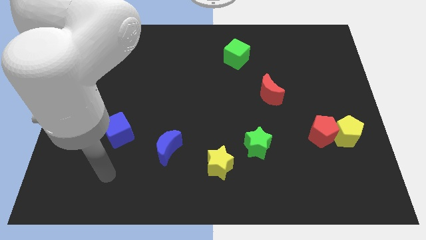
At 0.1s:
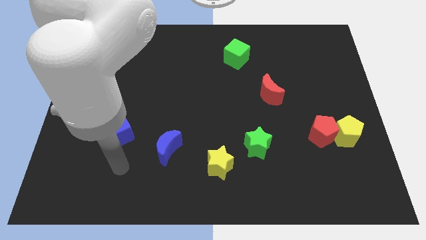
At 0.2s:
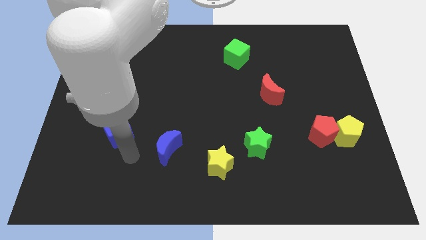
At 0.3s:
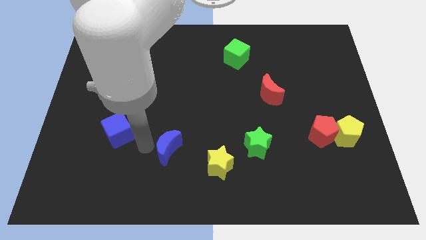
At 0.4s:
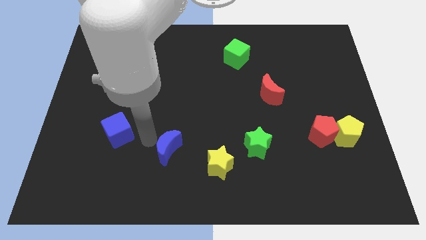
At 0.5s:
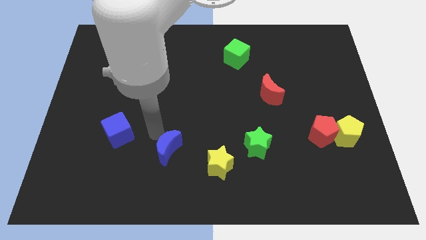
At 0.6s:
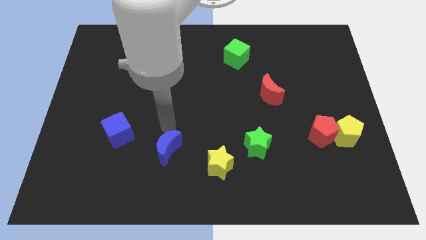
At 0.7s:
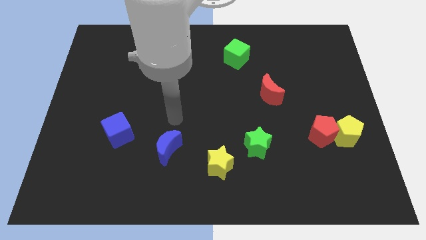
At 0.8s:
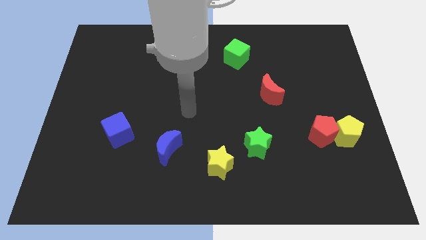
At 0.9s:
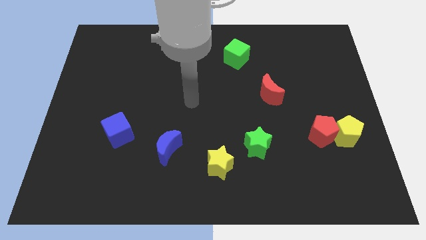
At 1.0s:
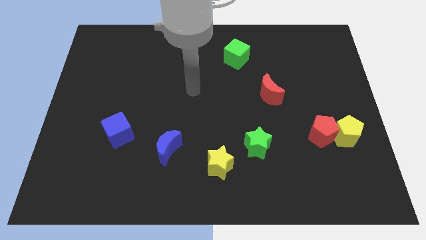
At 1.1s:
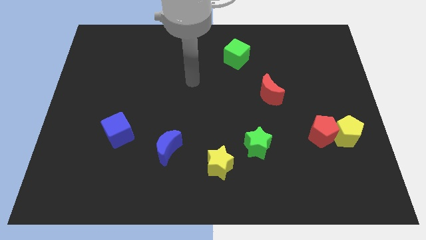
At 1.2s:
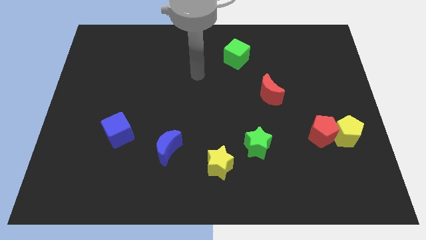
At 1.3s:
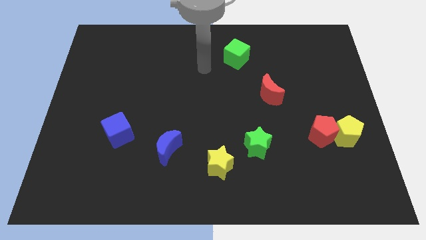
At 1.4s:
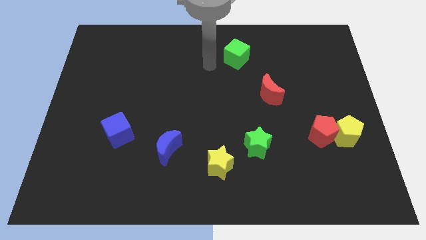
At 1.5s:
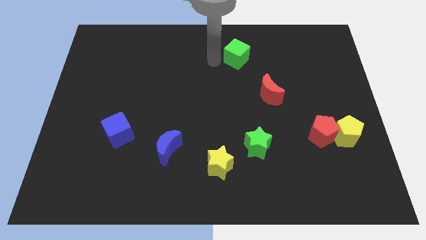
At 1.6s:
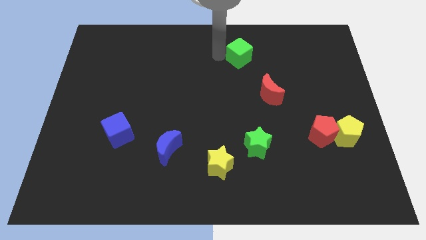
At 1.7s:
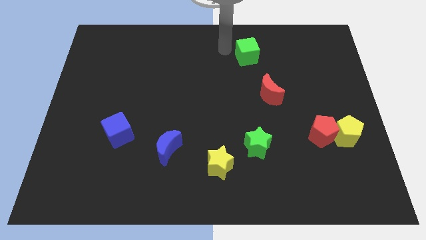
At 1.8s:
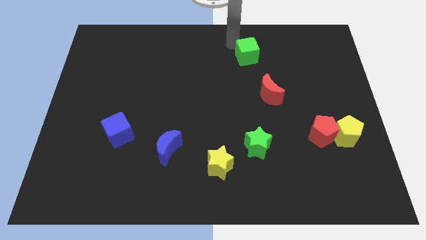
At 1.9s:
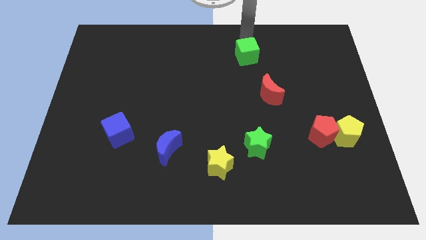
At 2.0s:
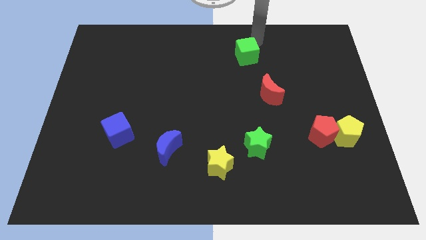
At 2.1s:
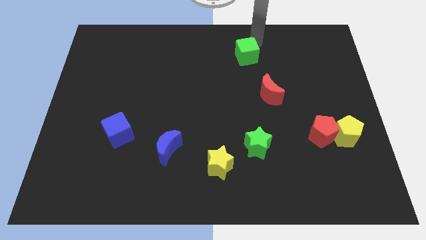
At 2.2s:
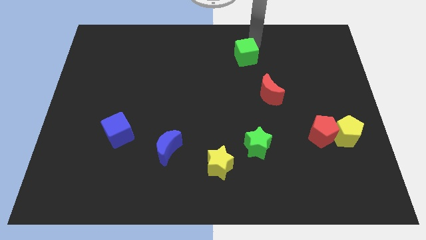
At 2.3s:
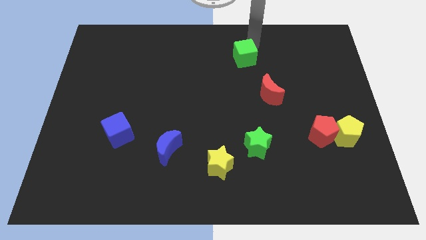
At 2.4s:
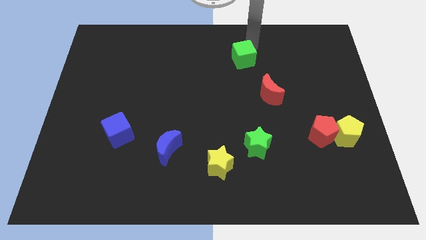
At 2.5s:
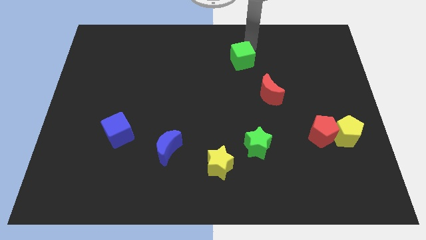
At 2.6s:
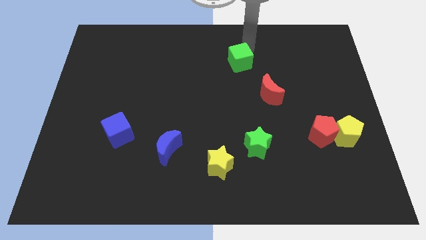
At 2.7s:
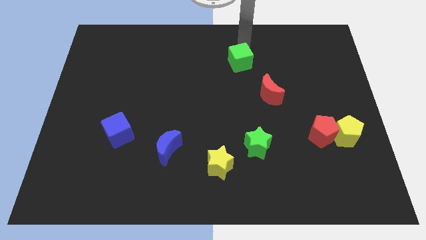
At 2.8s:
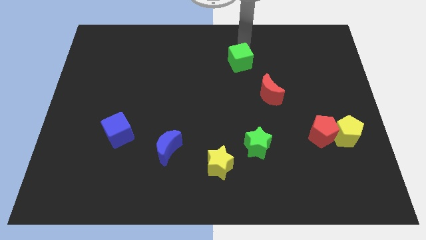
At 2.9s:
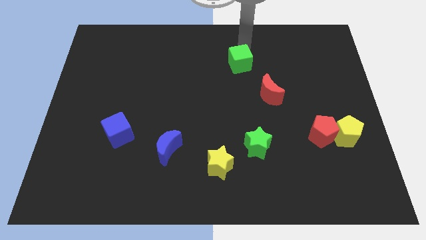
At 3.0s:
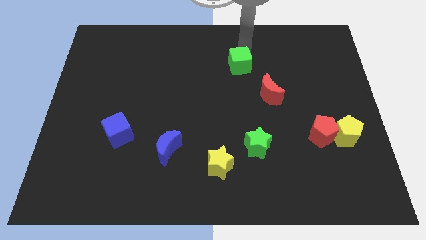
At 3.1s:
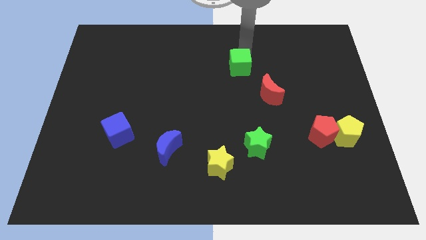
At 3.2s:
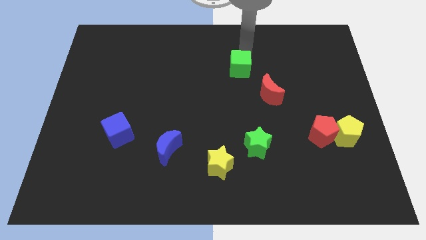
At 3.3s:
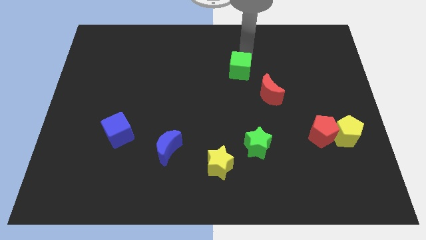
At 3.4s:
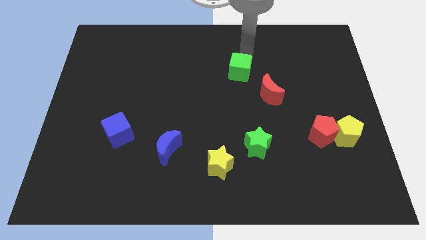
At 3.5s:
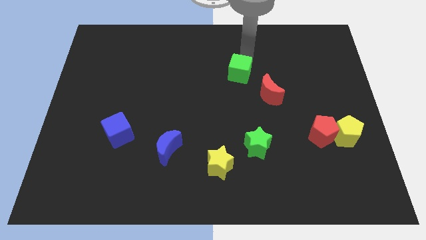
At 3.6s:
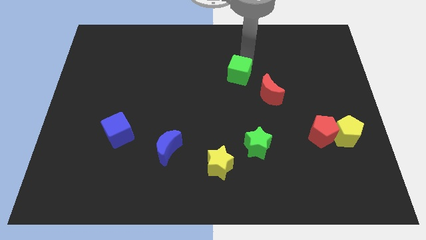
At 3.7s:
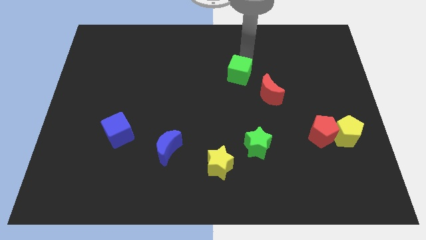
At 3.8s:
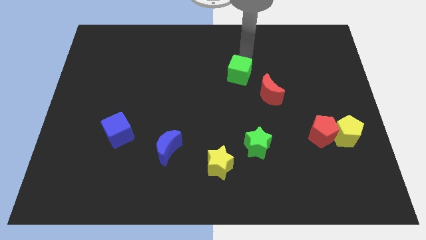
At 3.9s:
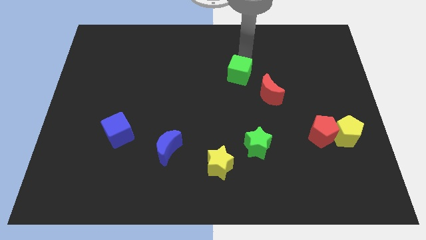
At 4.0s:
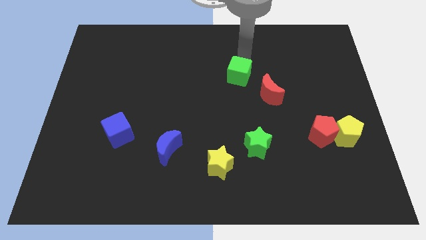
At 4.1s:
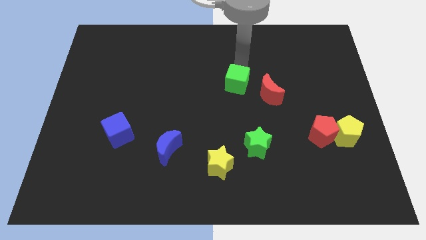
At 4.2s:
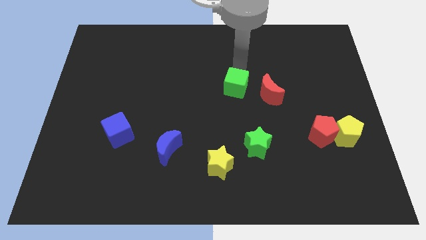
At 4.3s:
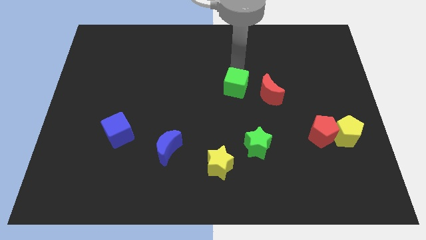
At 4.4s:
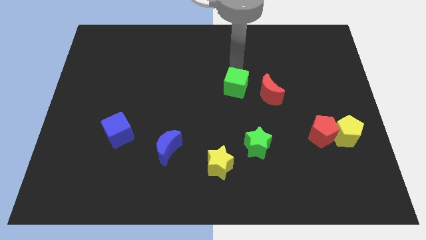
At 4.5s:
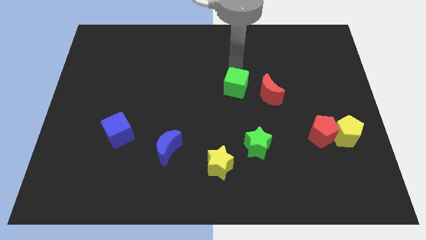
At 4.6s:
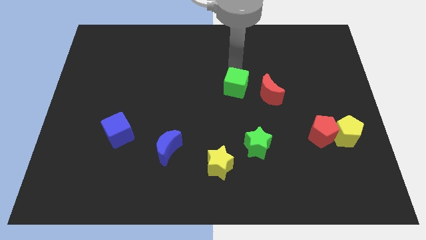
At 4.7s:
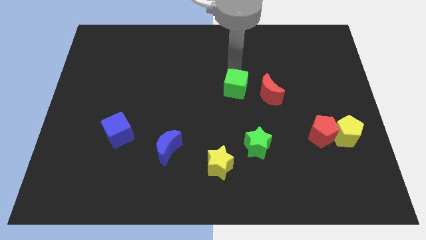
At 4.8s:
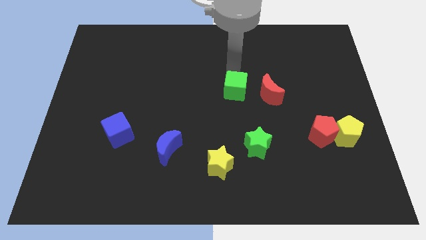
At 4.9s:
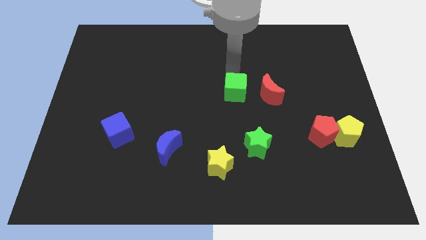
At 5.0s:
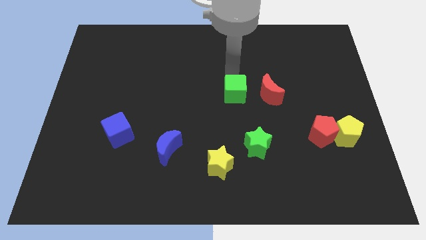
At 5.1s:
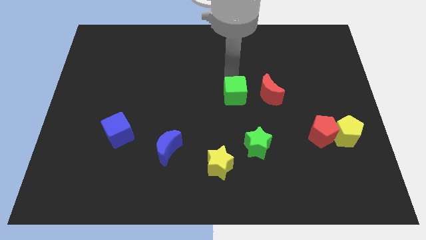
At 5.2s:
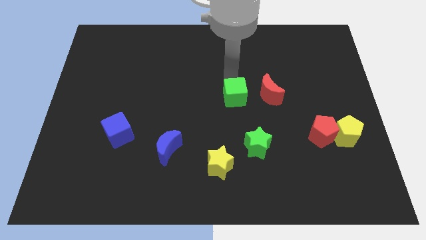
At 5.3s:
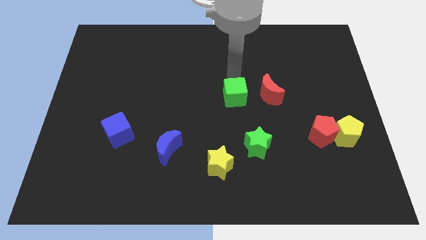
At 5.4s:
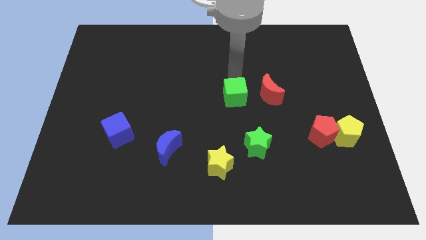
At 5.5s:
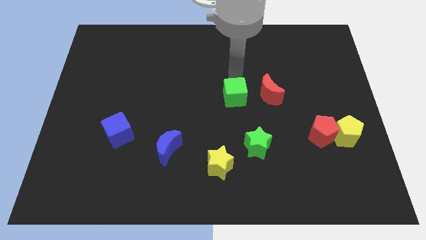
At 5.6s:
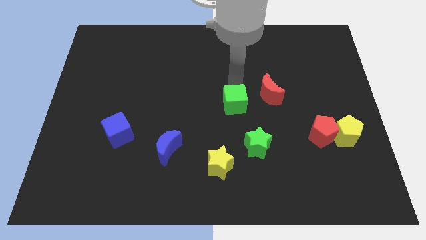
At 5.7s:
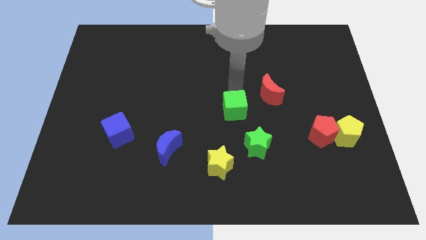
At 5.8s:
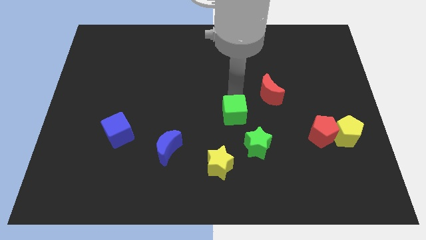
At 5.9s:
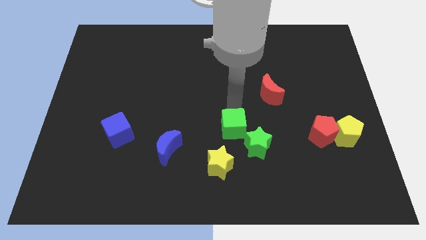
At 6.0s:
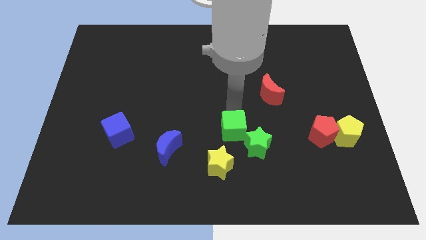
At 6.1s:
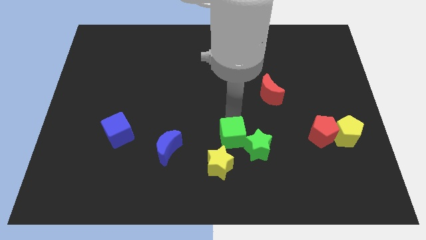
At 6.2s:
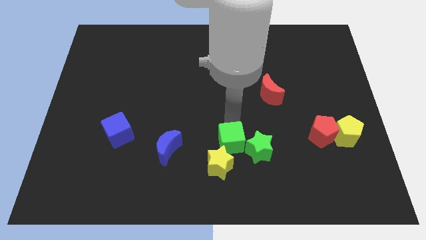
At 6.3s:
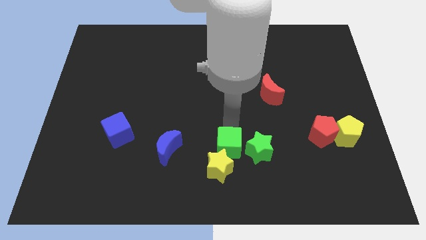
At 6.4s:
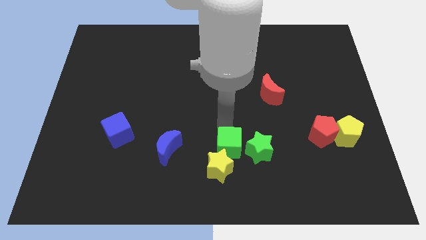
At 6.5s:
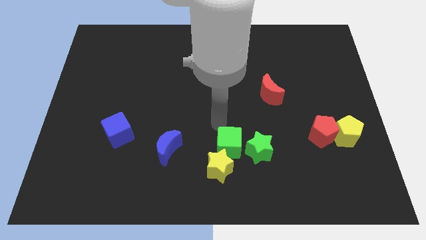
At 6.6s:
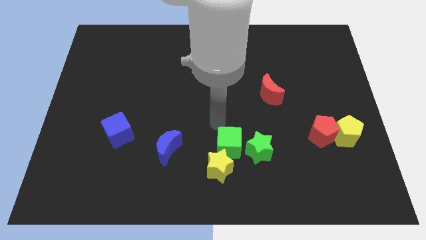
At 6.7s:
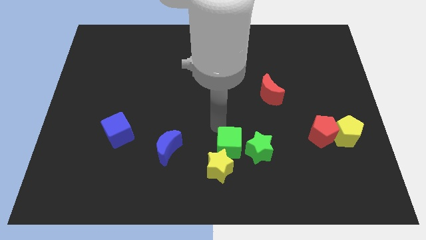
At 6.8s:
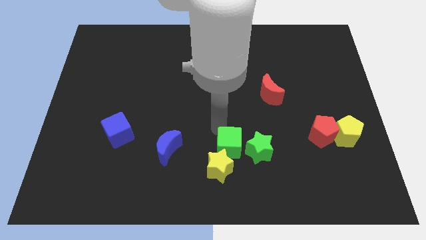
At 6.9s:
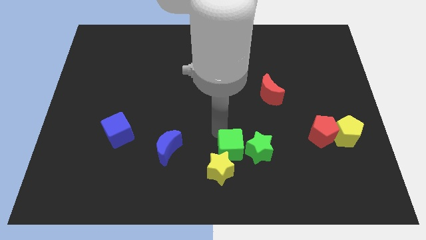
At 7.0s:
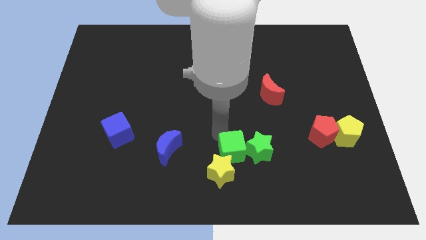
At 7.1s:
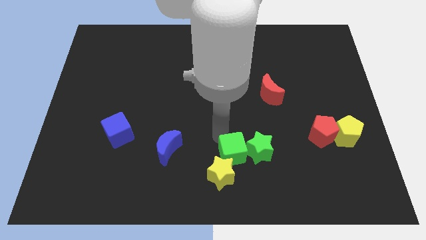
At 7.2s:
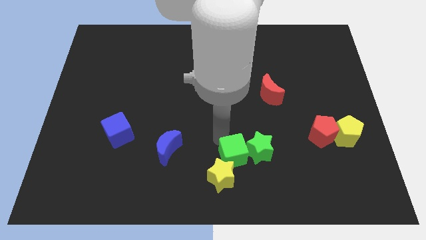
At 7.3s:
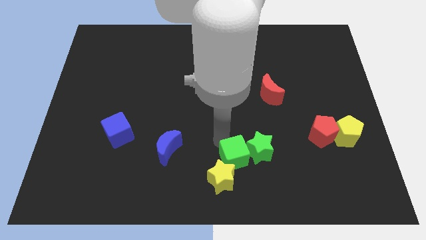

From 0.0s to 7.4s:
move the green cube to the bottom side
